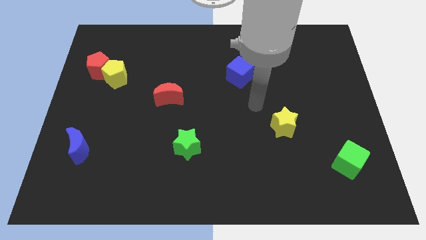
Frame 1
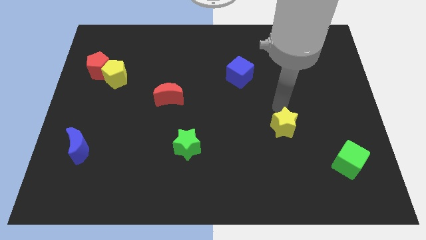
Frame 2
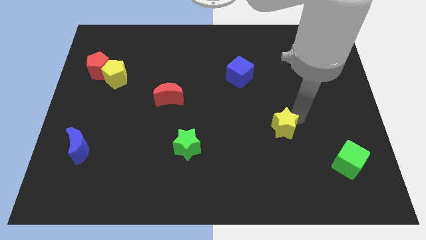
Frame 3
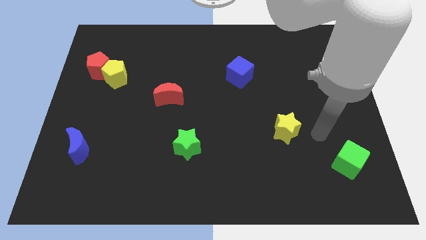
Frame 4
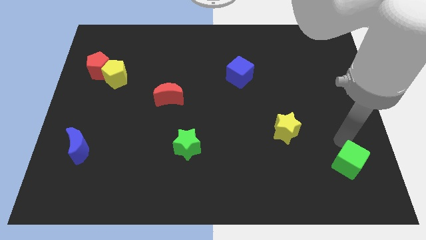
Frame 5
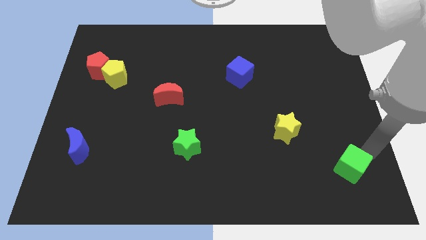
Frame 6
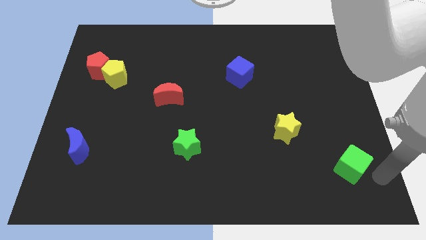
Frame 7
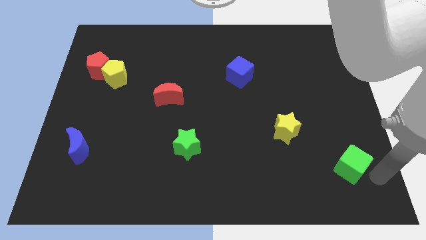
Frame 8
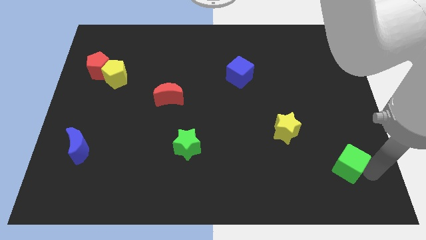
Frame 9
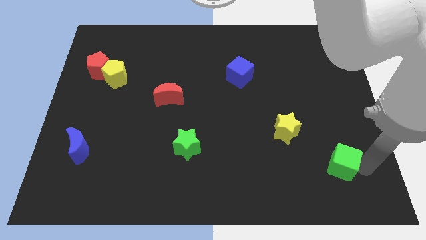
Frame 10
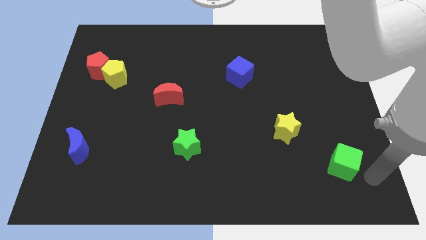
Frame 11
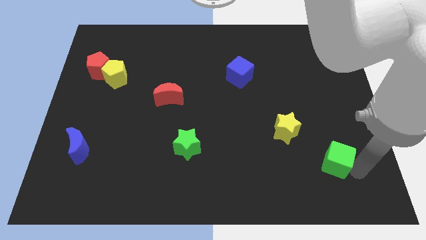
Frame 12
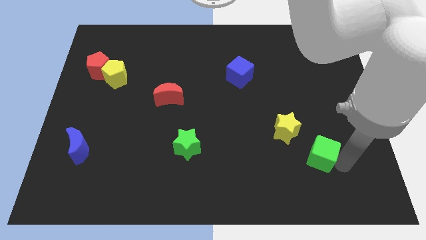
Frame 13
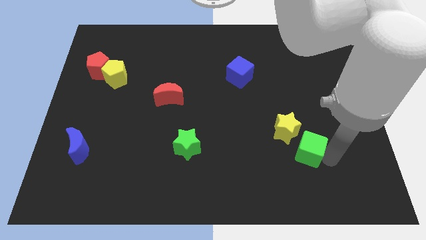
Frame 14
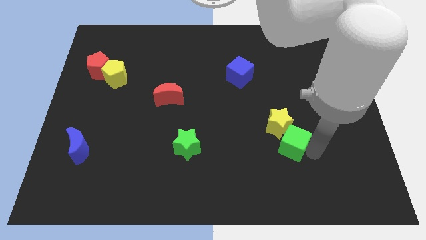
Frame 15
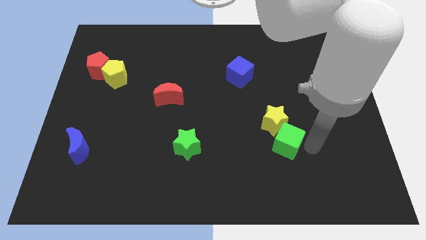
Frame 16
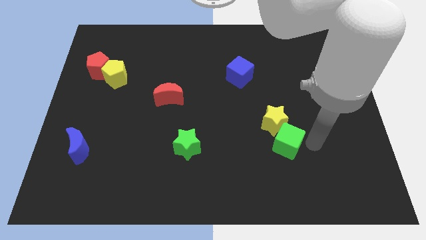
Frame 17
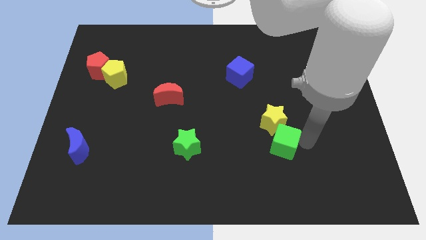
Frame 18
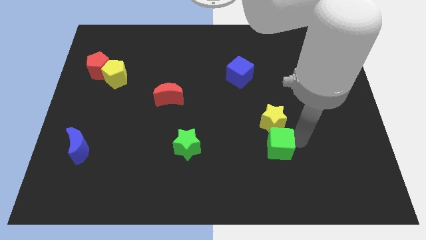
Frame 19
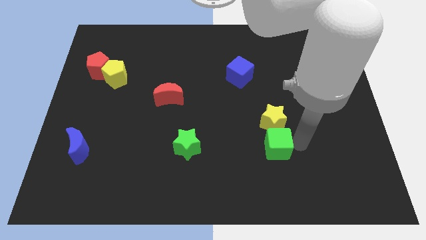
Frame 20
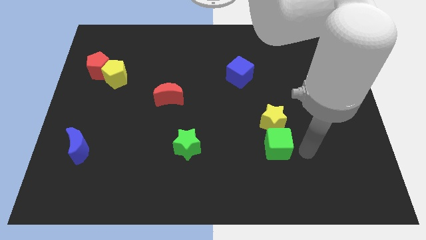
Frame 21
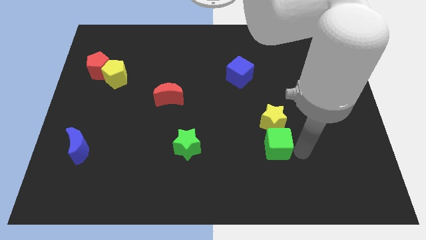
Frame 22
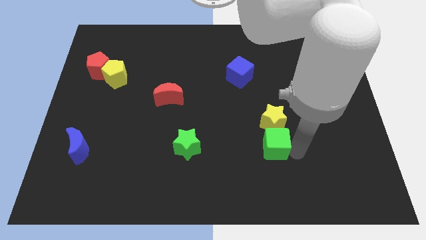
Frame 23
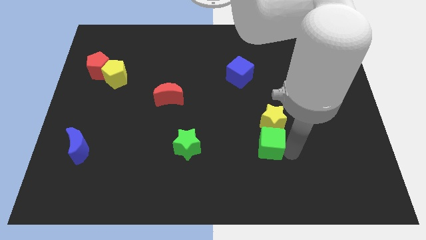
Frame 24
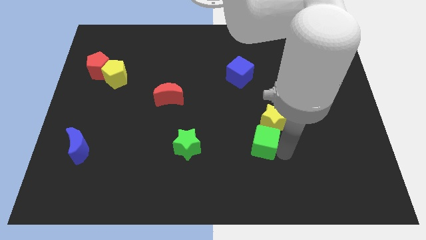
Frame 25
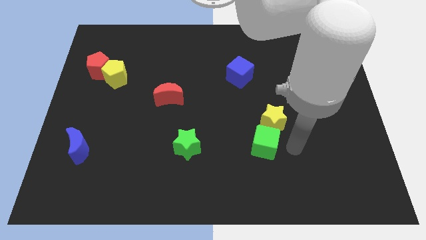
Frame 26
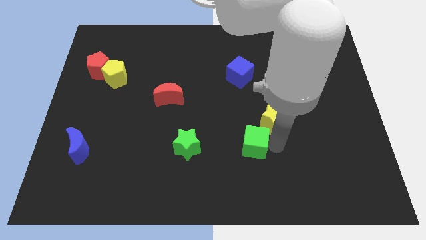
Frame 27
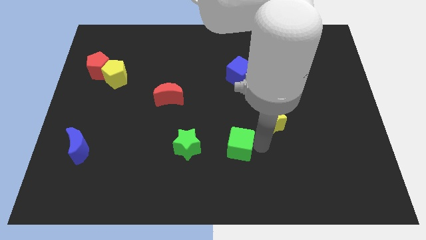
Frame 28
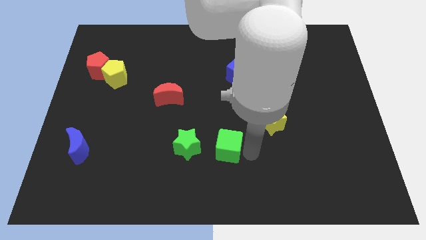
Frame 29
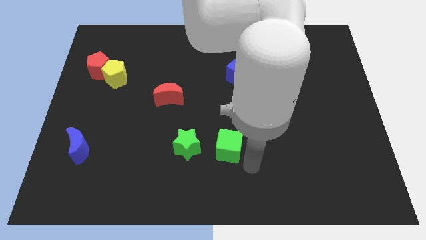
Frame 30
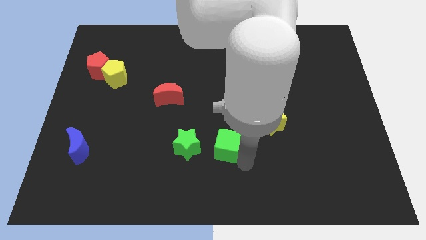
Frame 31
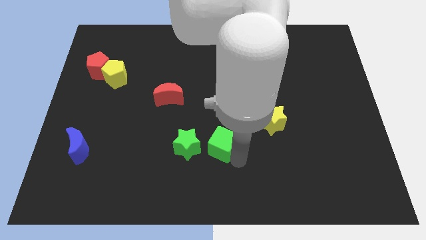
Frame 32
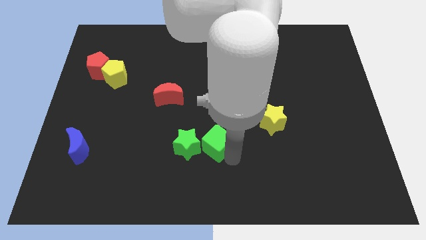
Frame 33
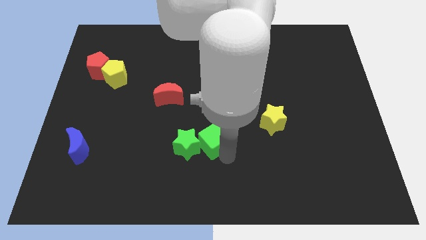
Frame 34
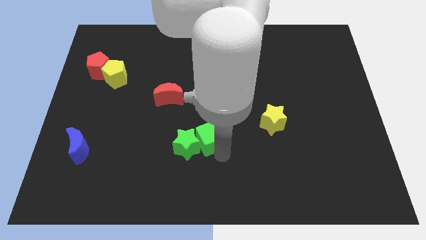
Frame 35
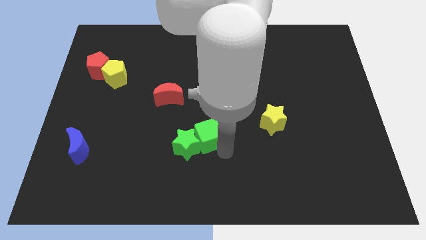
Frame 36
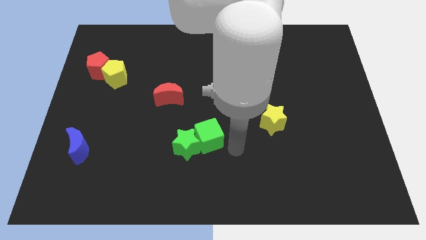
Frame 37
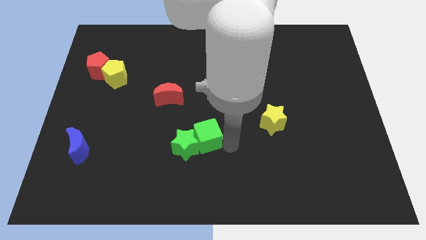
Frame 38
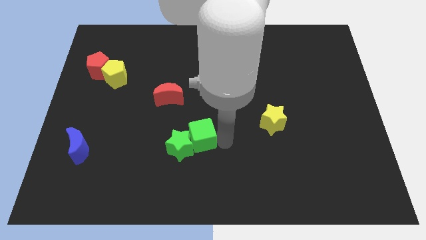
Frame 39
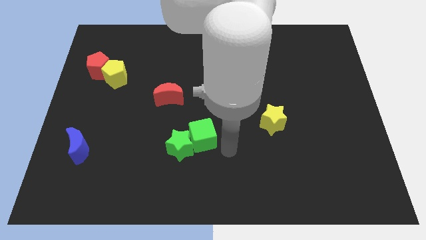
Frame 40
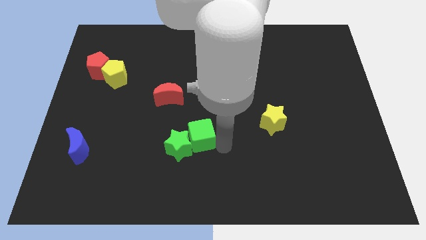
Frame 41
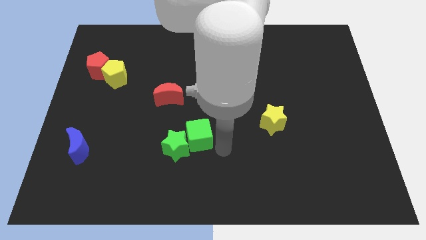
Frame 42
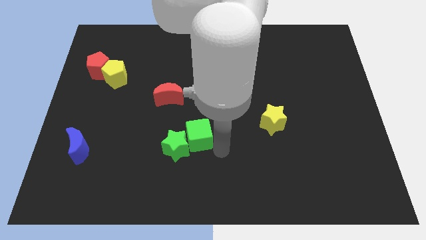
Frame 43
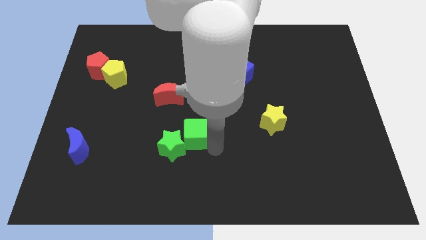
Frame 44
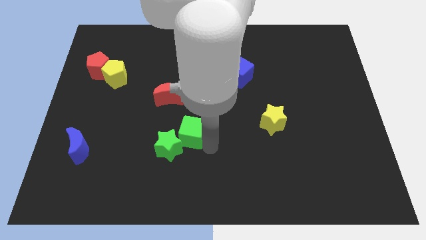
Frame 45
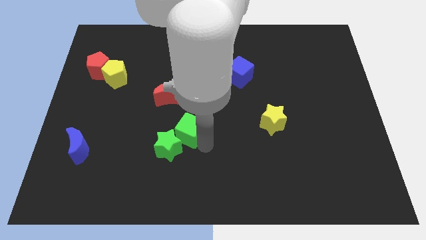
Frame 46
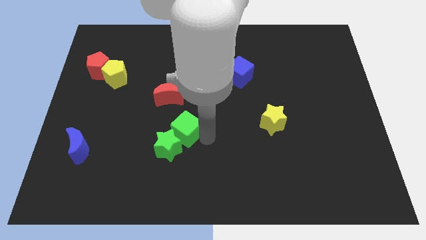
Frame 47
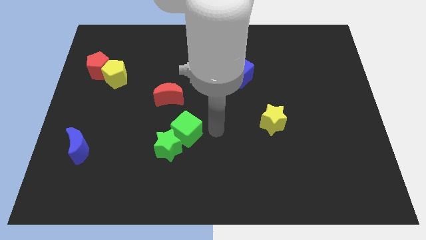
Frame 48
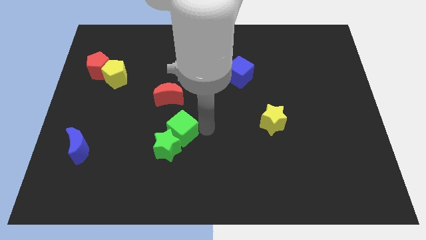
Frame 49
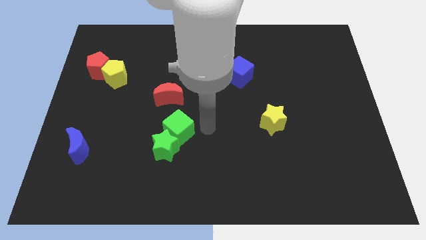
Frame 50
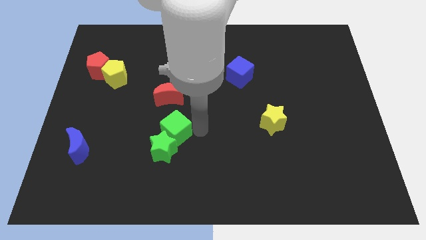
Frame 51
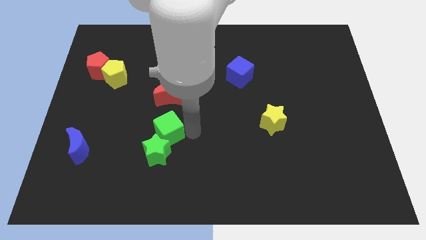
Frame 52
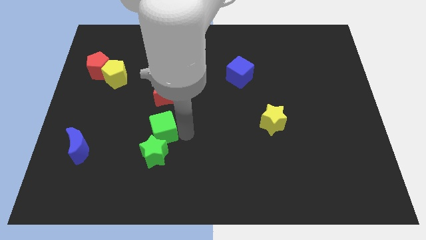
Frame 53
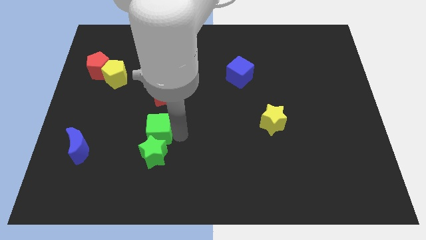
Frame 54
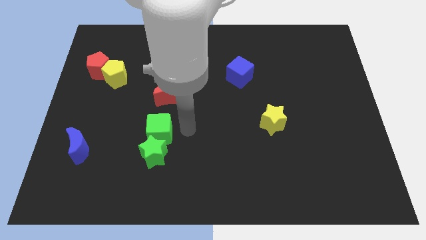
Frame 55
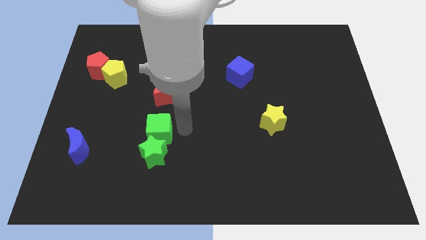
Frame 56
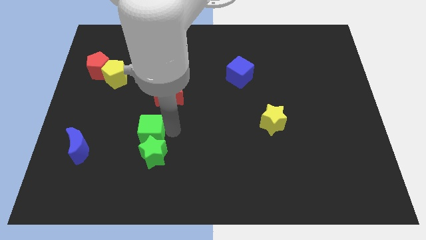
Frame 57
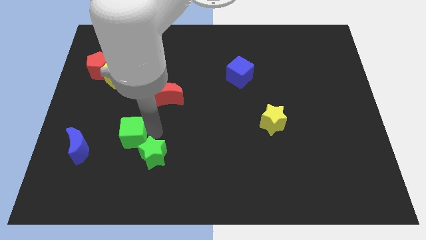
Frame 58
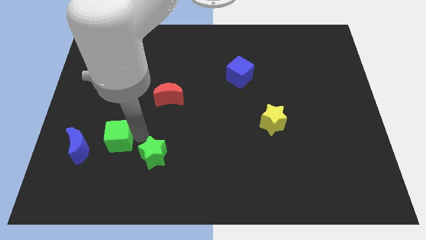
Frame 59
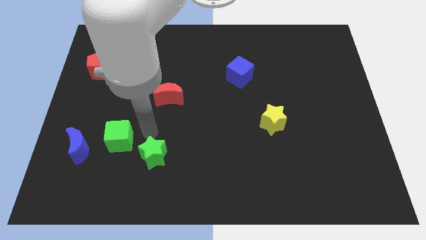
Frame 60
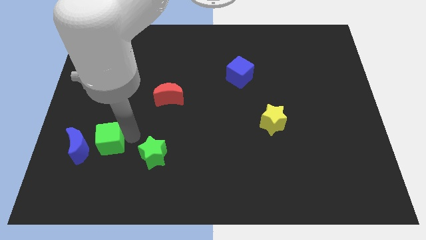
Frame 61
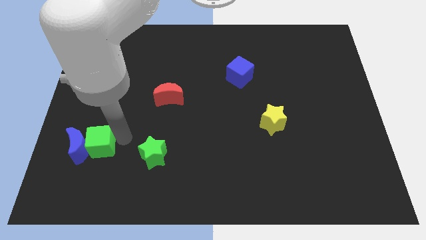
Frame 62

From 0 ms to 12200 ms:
push the green cube next to the blue moon

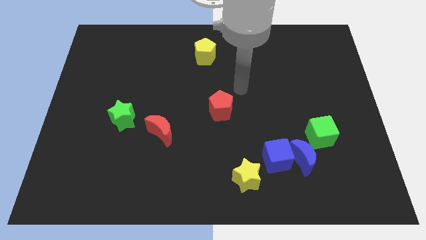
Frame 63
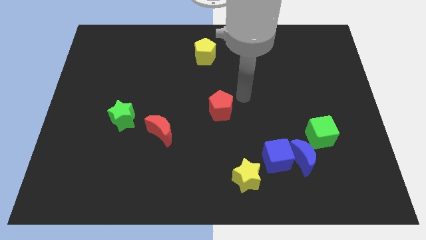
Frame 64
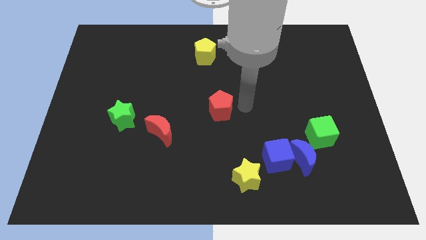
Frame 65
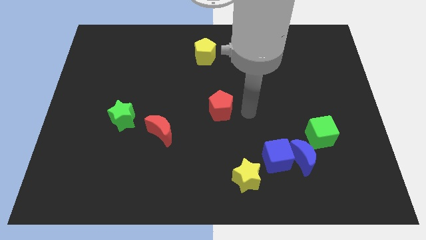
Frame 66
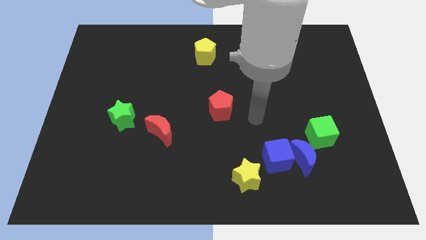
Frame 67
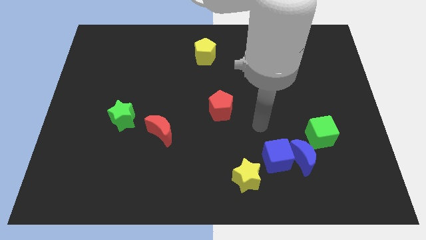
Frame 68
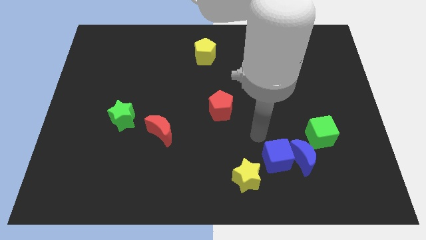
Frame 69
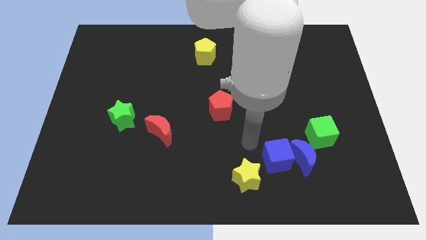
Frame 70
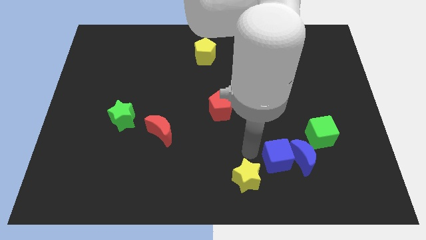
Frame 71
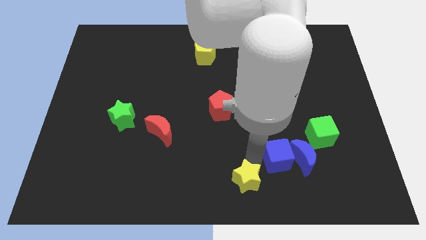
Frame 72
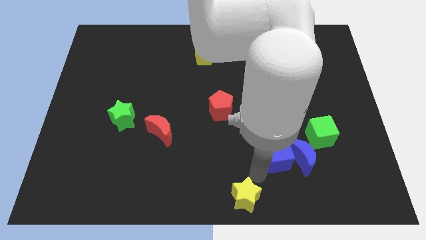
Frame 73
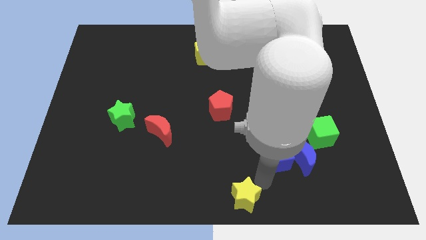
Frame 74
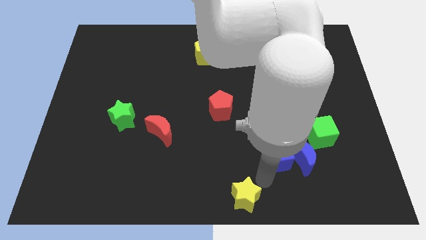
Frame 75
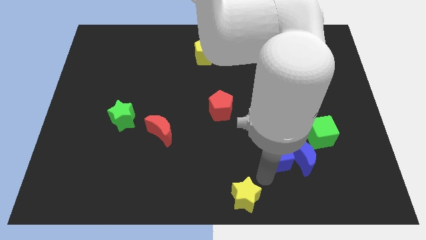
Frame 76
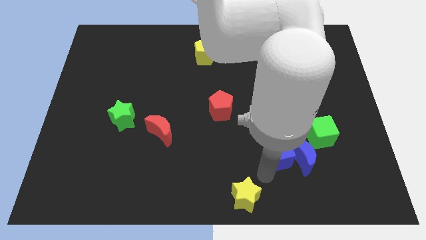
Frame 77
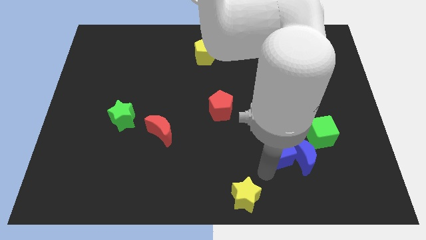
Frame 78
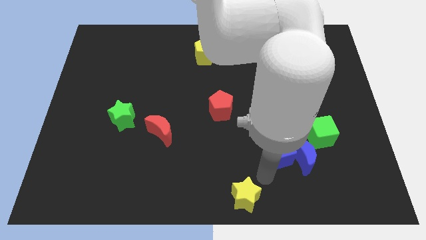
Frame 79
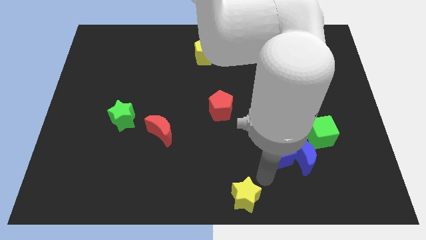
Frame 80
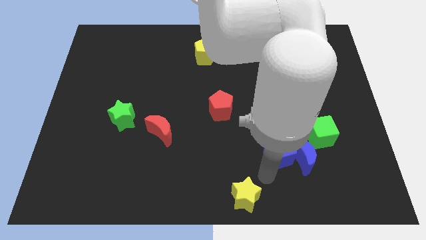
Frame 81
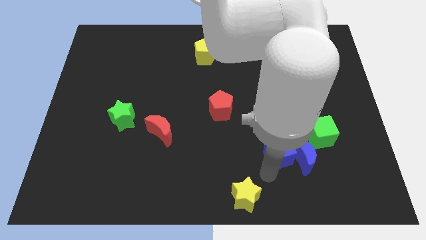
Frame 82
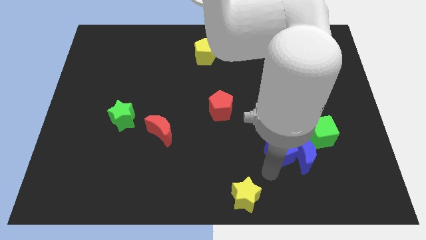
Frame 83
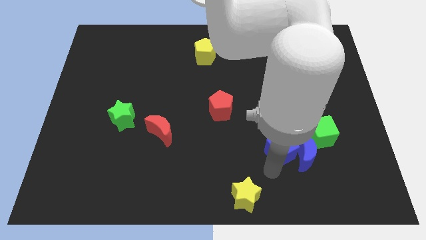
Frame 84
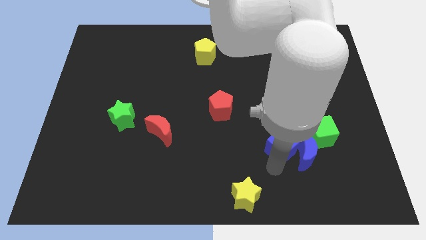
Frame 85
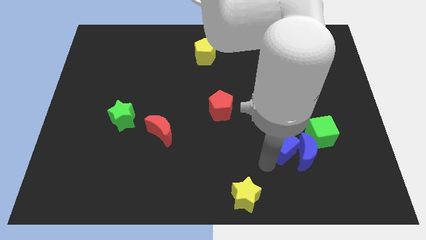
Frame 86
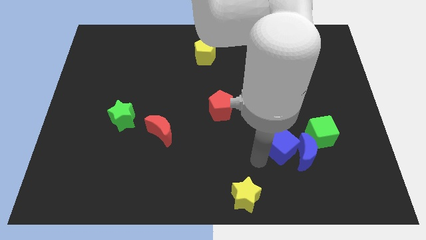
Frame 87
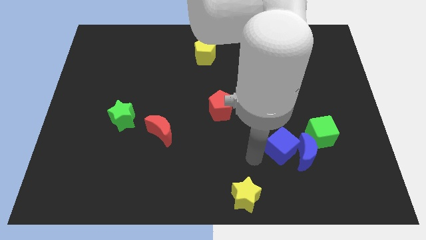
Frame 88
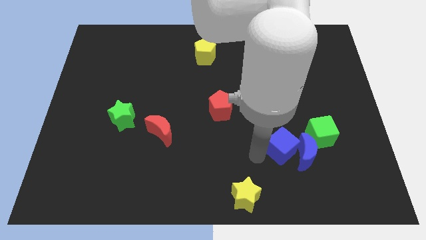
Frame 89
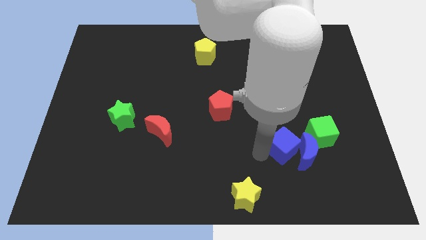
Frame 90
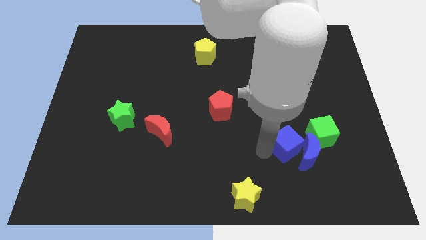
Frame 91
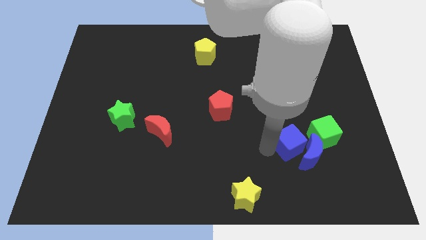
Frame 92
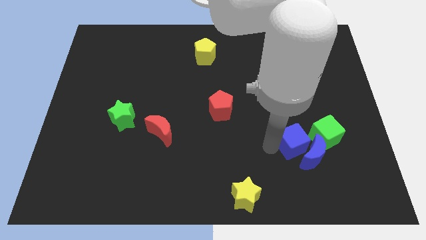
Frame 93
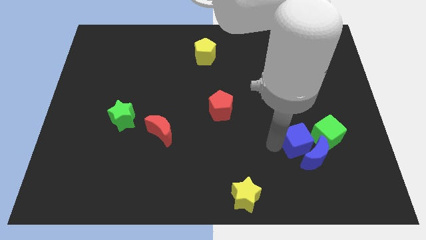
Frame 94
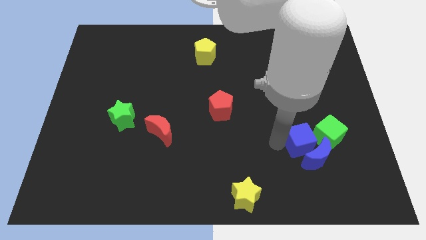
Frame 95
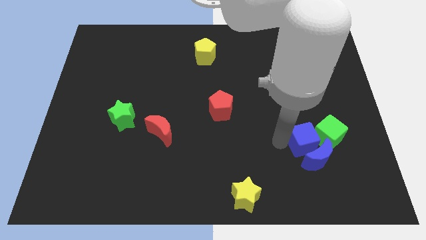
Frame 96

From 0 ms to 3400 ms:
push the blue cube next to the green cube
